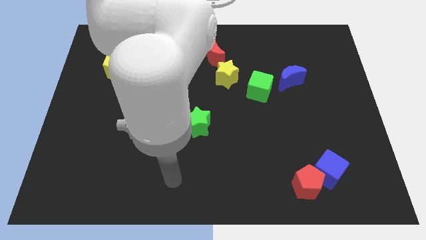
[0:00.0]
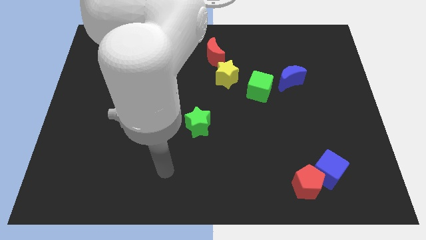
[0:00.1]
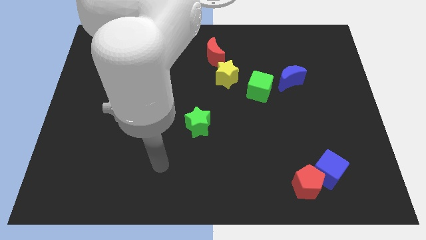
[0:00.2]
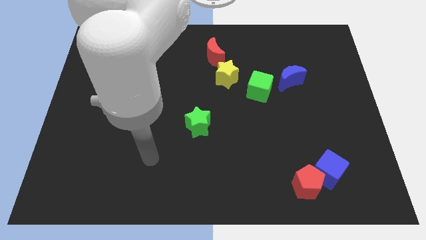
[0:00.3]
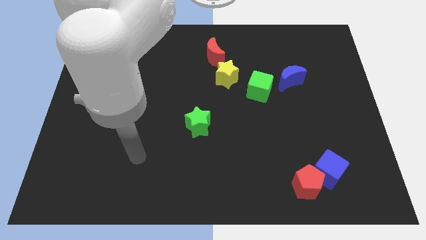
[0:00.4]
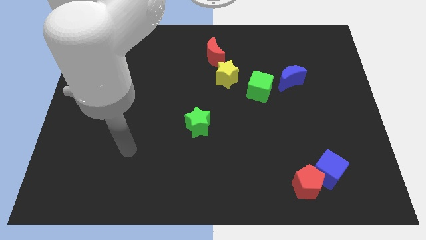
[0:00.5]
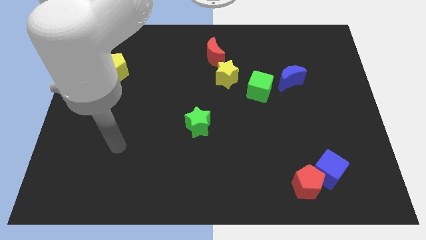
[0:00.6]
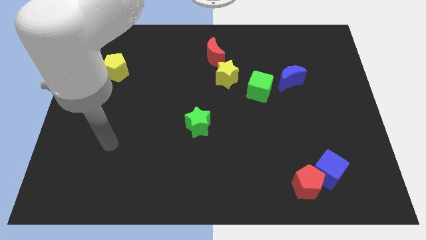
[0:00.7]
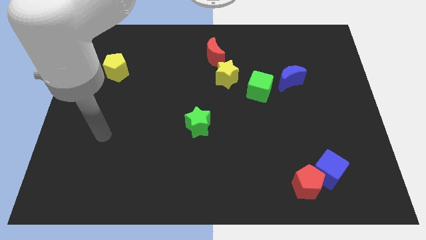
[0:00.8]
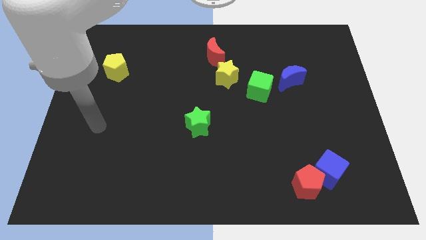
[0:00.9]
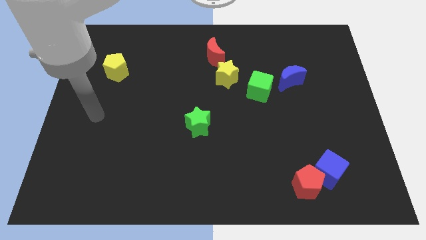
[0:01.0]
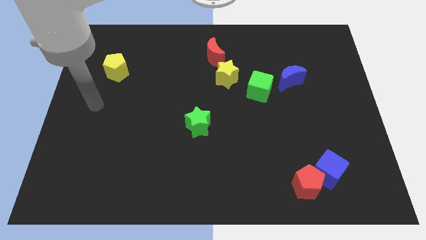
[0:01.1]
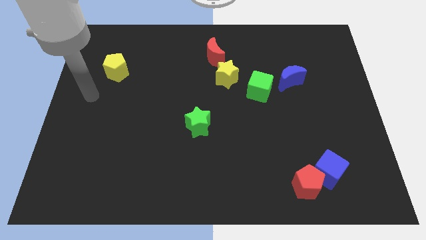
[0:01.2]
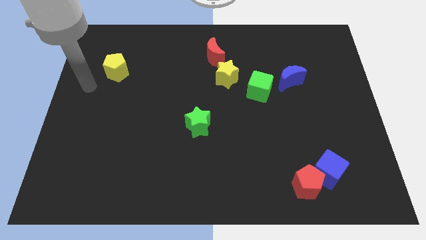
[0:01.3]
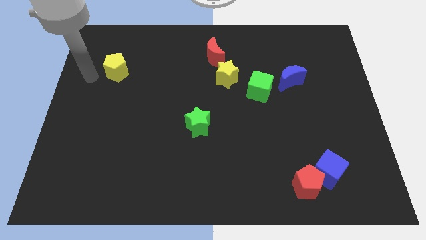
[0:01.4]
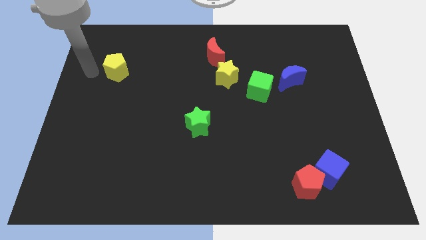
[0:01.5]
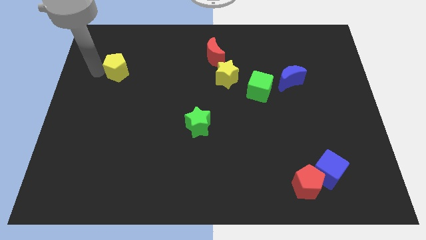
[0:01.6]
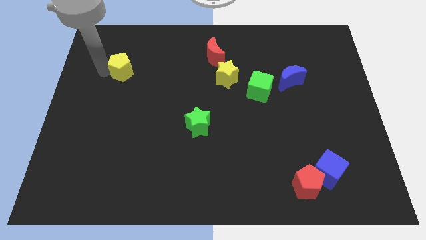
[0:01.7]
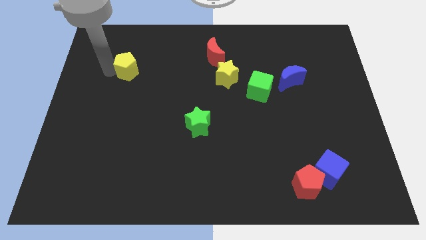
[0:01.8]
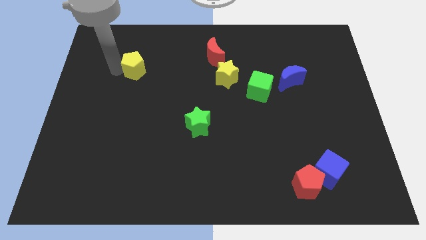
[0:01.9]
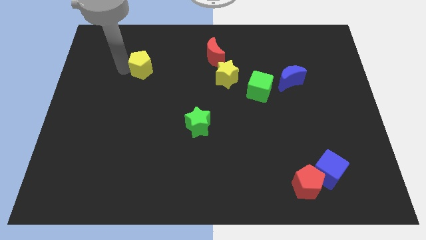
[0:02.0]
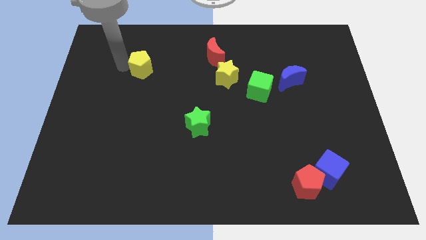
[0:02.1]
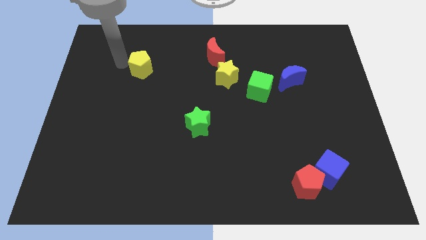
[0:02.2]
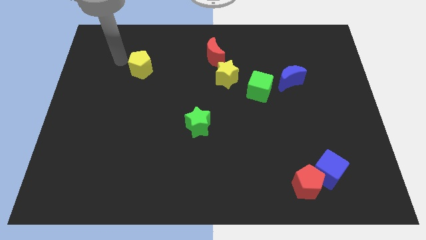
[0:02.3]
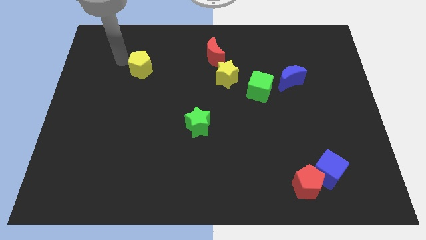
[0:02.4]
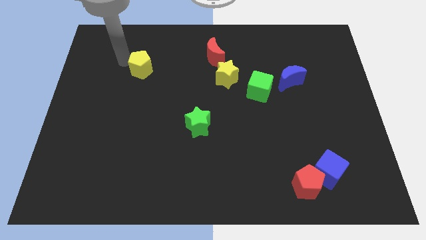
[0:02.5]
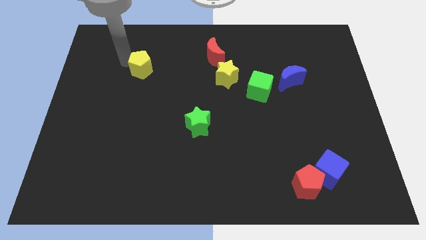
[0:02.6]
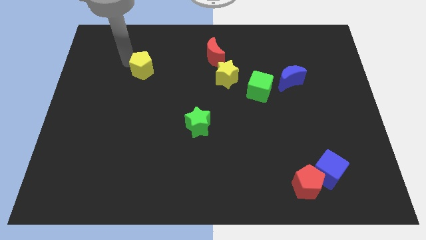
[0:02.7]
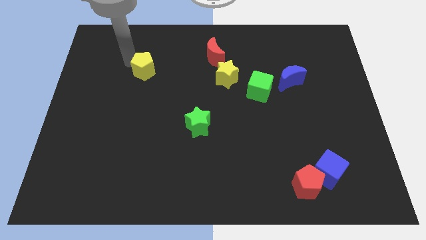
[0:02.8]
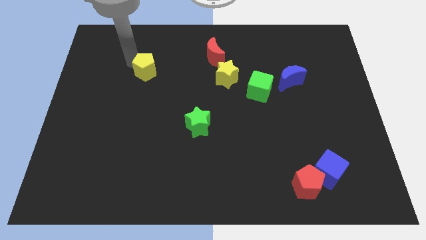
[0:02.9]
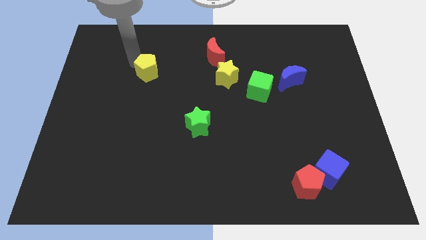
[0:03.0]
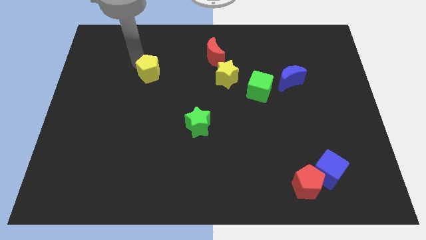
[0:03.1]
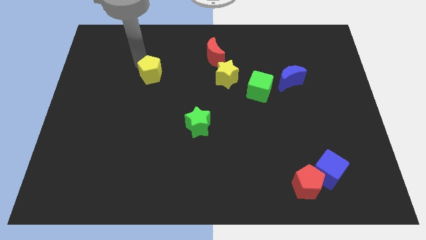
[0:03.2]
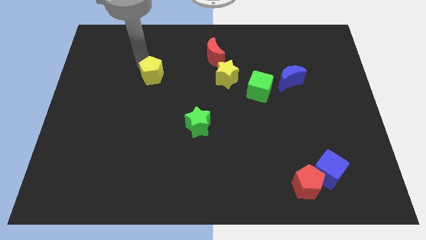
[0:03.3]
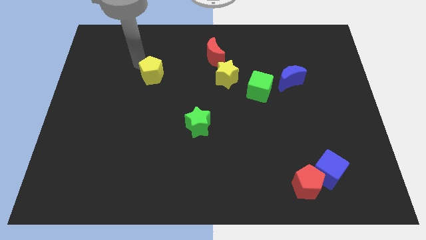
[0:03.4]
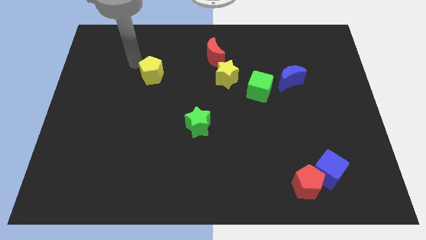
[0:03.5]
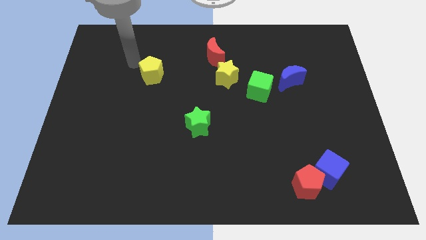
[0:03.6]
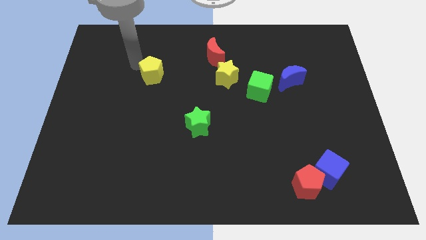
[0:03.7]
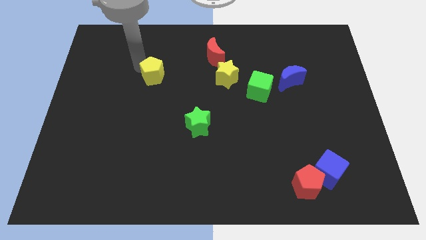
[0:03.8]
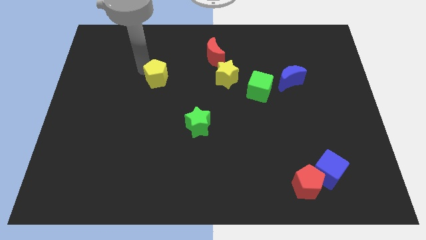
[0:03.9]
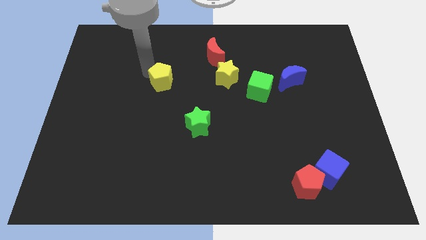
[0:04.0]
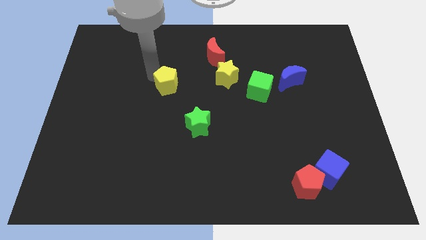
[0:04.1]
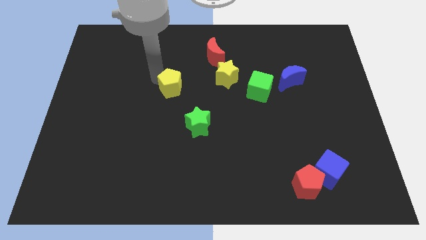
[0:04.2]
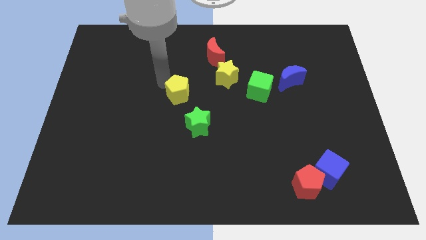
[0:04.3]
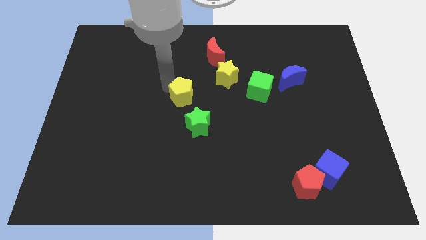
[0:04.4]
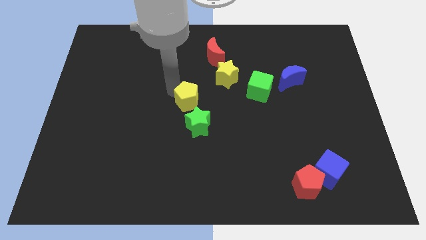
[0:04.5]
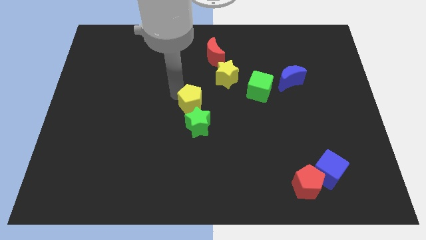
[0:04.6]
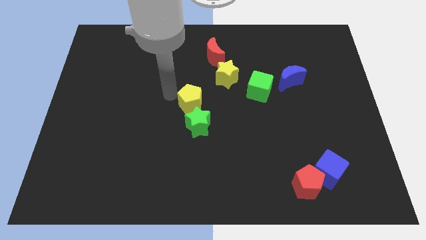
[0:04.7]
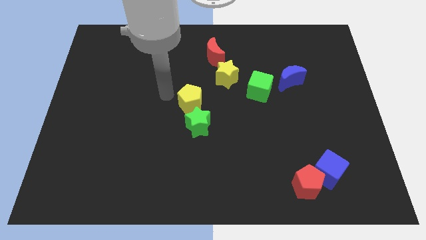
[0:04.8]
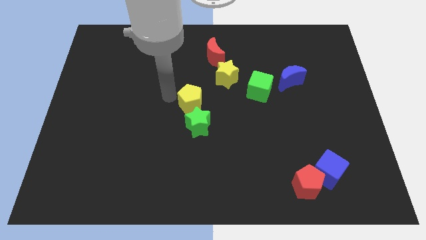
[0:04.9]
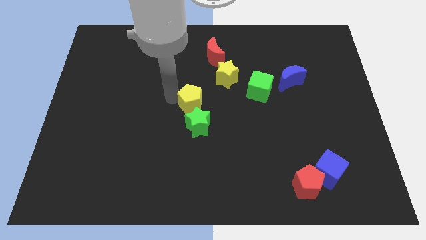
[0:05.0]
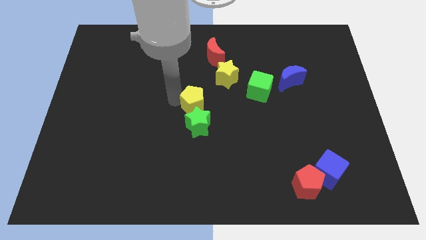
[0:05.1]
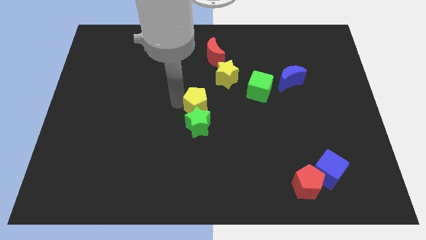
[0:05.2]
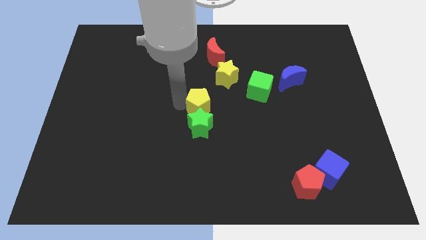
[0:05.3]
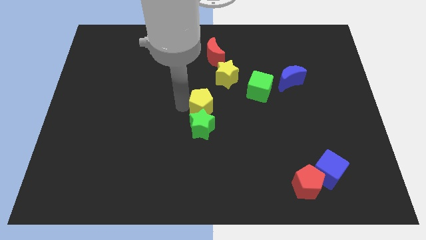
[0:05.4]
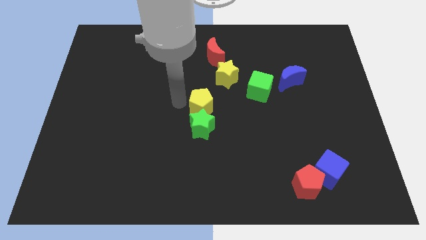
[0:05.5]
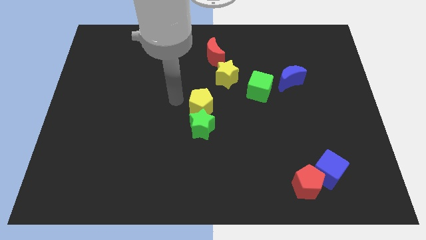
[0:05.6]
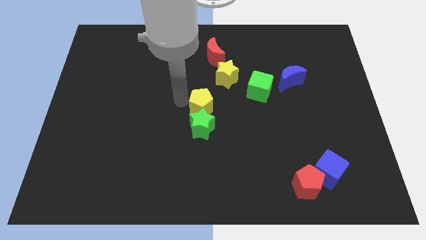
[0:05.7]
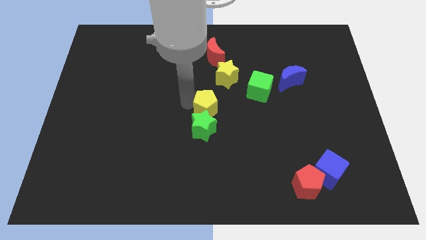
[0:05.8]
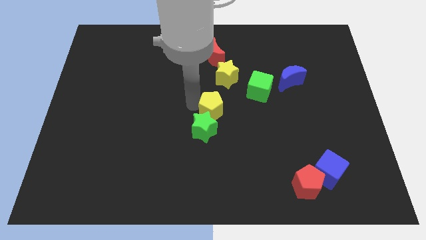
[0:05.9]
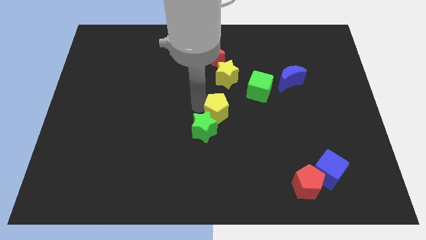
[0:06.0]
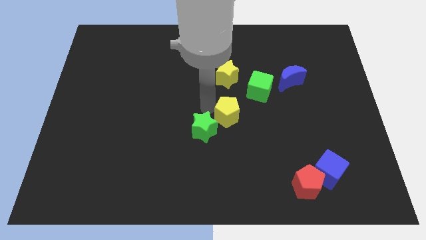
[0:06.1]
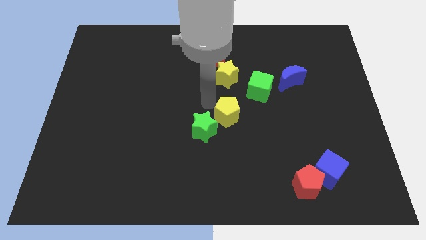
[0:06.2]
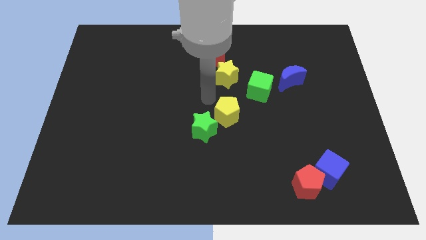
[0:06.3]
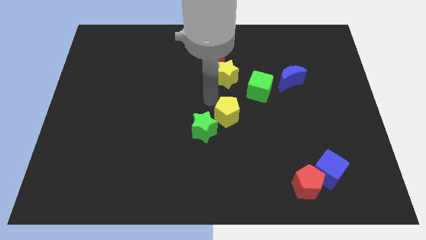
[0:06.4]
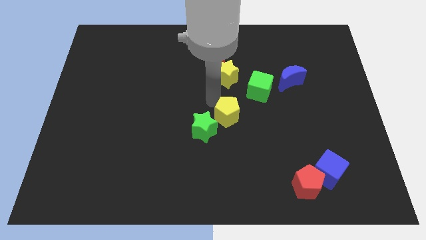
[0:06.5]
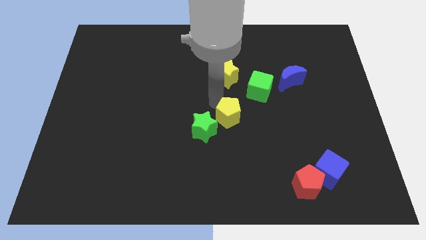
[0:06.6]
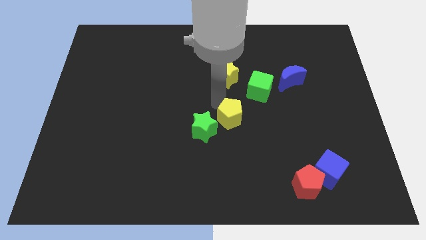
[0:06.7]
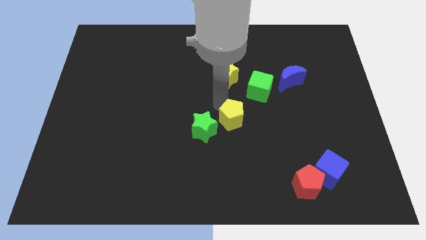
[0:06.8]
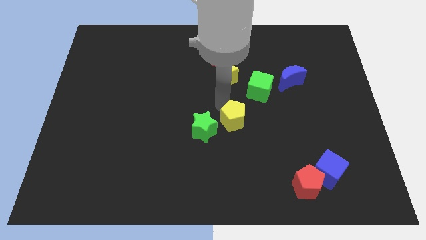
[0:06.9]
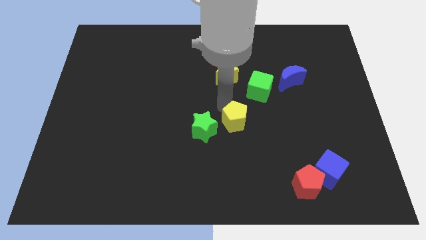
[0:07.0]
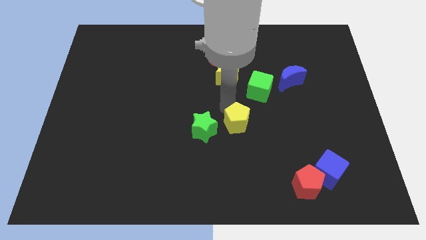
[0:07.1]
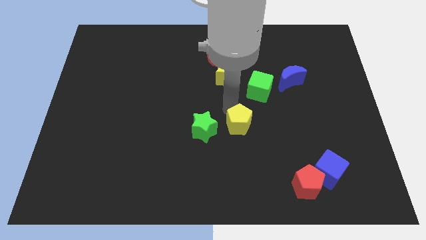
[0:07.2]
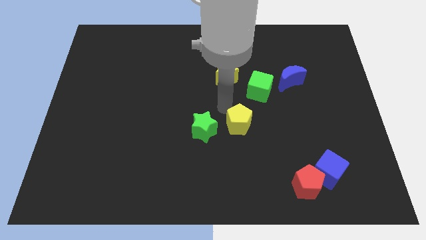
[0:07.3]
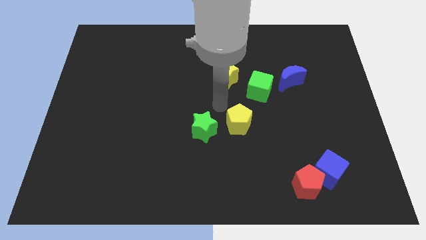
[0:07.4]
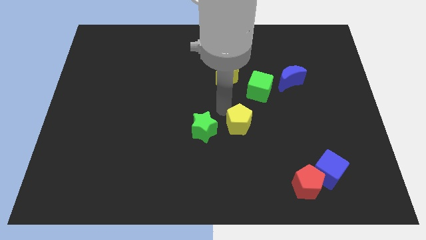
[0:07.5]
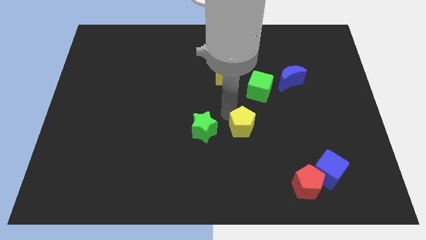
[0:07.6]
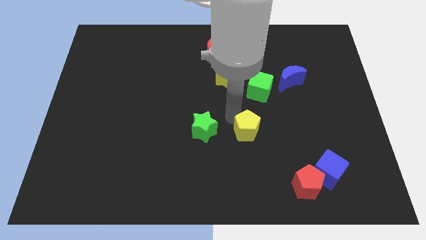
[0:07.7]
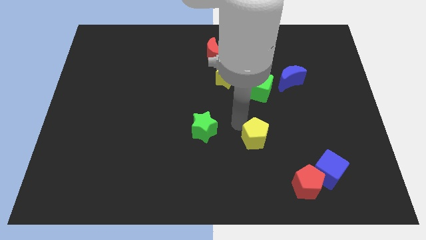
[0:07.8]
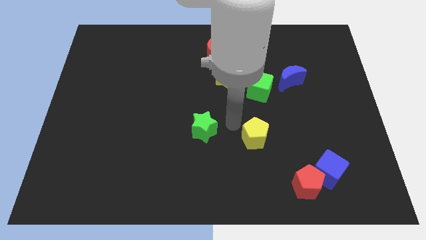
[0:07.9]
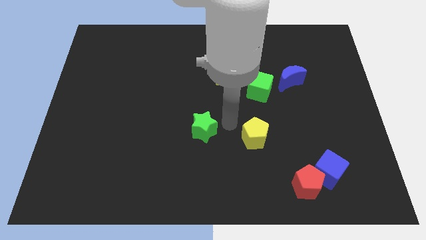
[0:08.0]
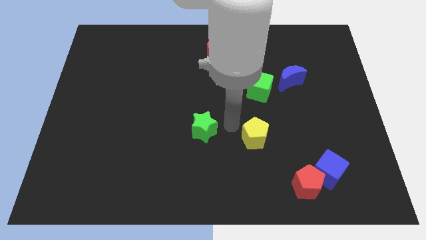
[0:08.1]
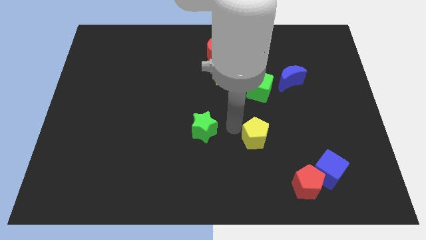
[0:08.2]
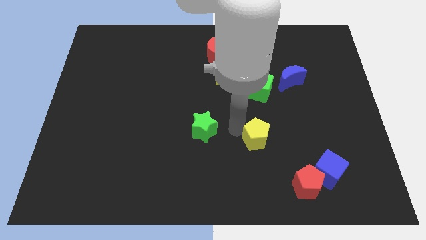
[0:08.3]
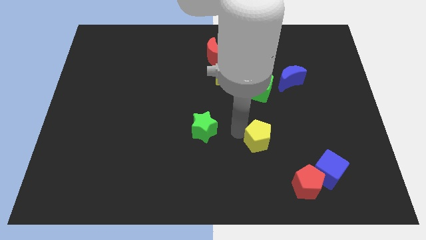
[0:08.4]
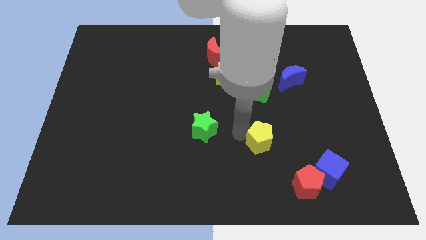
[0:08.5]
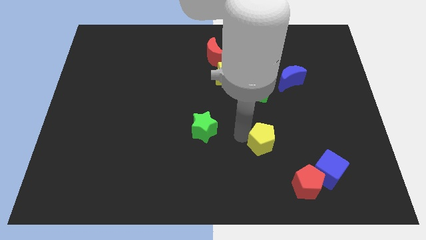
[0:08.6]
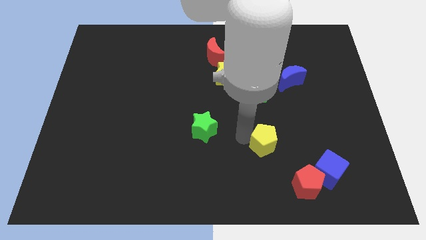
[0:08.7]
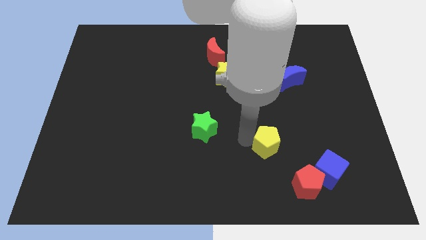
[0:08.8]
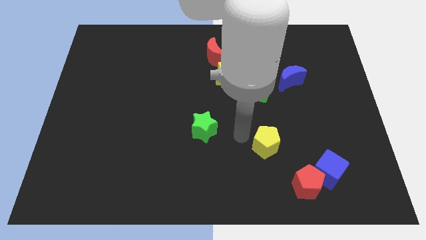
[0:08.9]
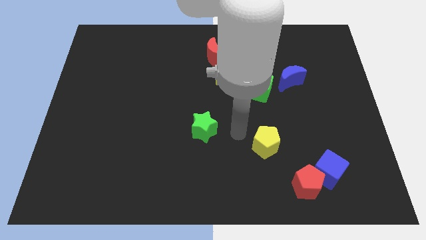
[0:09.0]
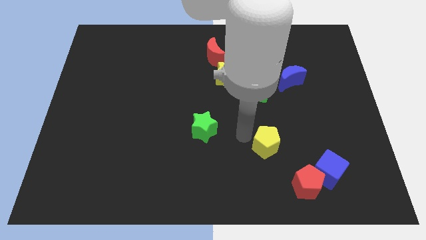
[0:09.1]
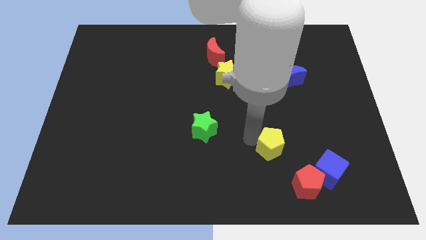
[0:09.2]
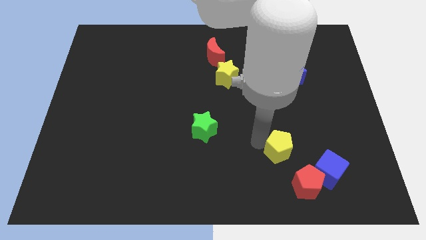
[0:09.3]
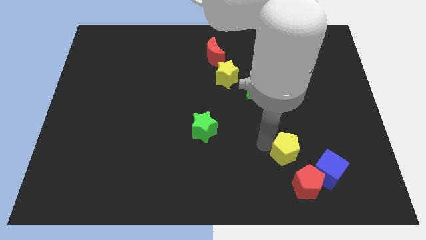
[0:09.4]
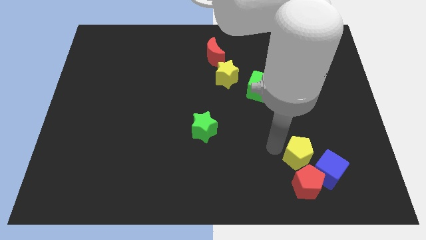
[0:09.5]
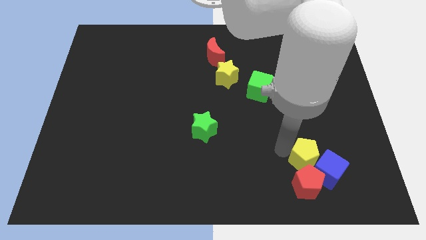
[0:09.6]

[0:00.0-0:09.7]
slide the yellow pentagon close to the blue cube
